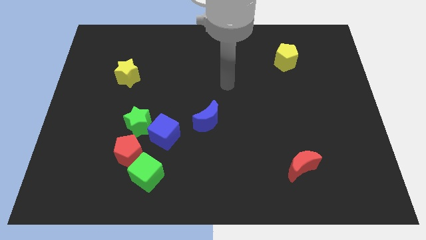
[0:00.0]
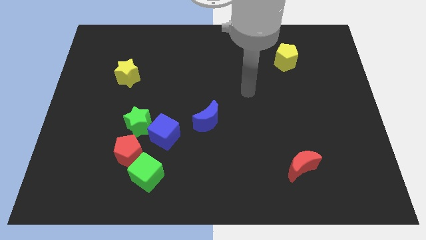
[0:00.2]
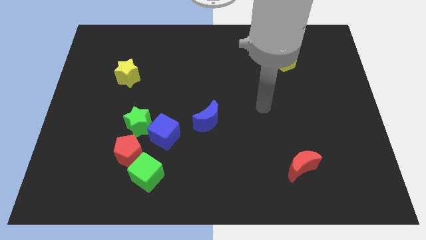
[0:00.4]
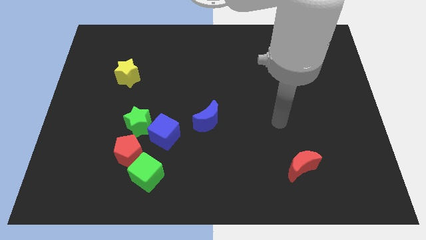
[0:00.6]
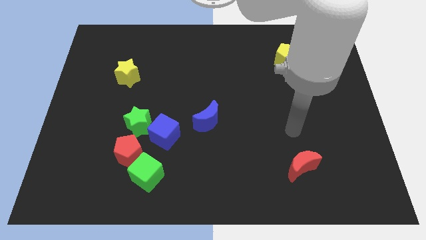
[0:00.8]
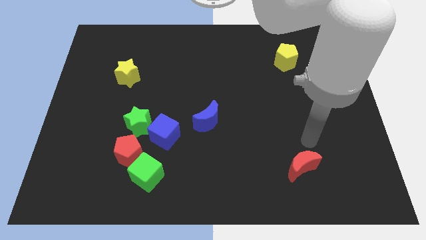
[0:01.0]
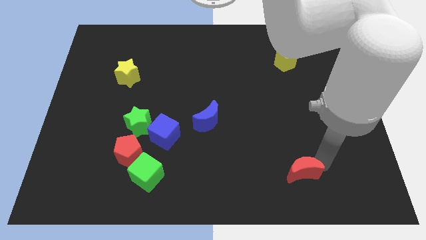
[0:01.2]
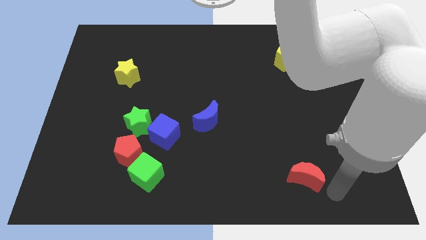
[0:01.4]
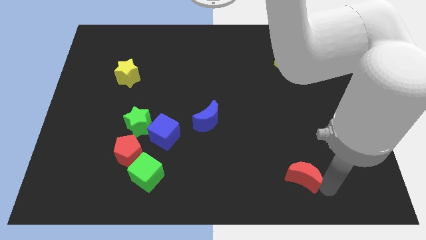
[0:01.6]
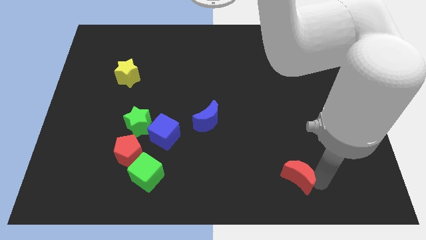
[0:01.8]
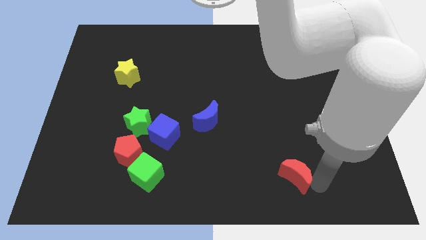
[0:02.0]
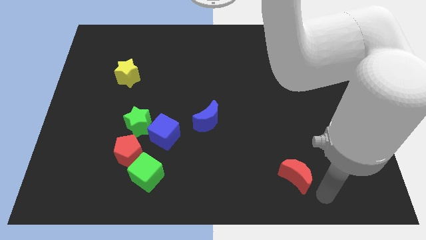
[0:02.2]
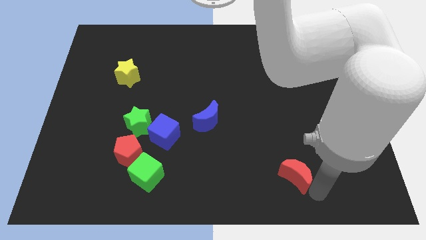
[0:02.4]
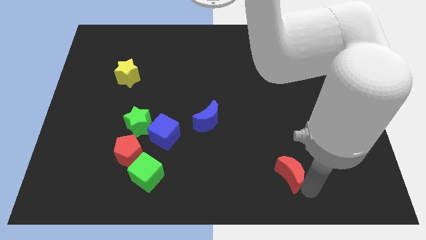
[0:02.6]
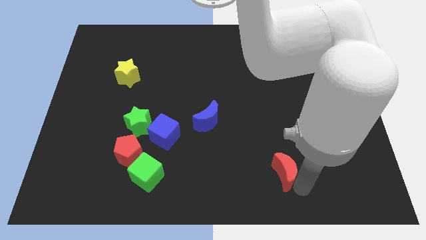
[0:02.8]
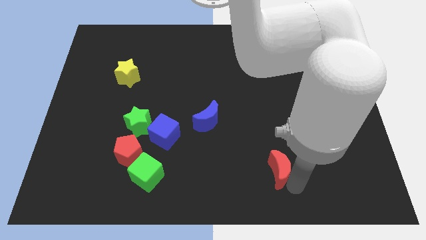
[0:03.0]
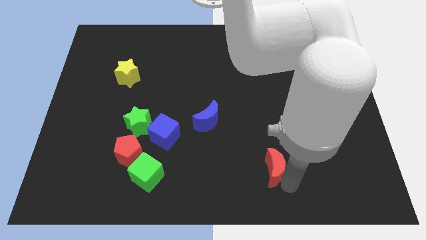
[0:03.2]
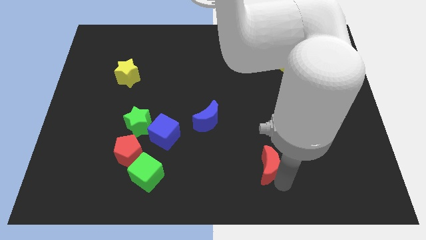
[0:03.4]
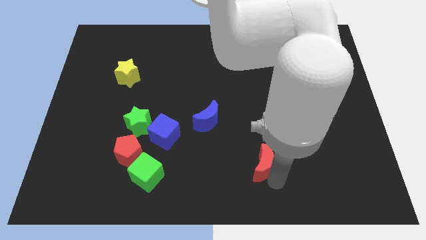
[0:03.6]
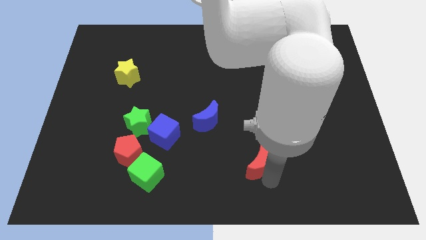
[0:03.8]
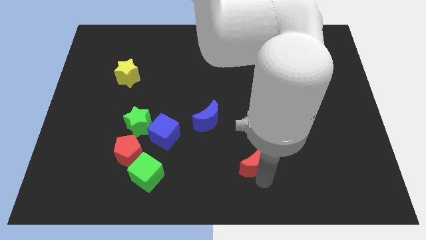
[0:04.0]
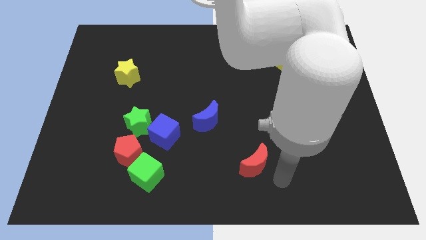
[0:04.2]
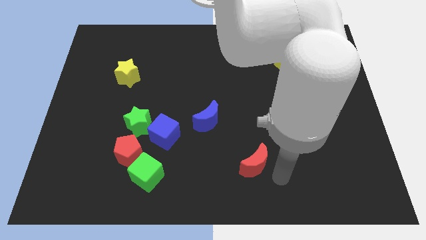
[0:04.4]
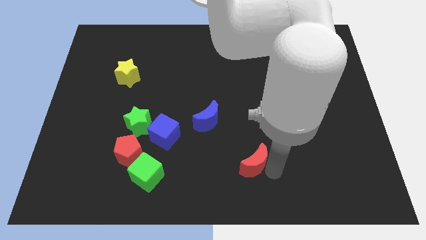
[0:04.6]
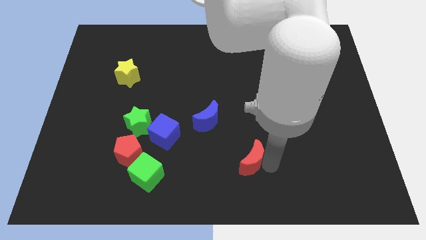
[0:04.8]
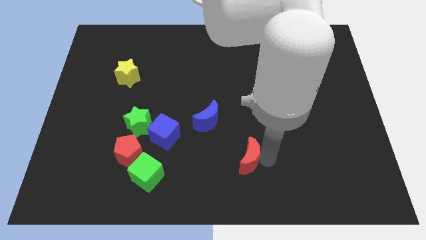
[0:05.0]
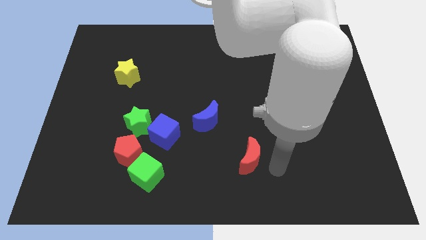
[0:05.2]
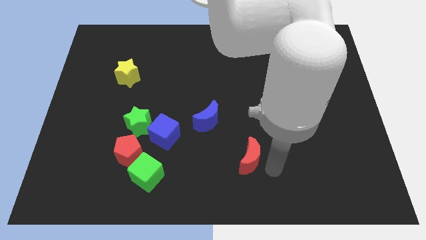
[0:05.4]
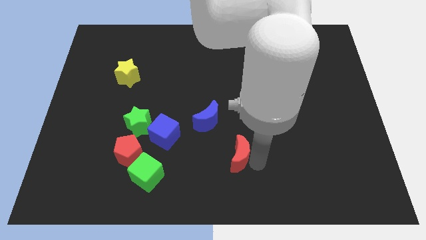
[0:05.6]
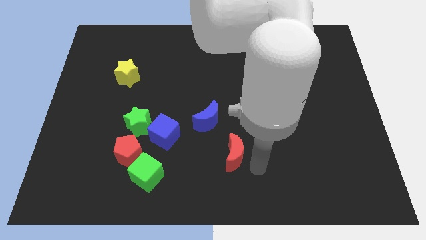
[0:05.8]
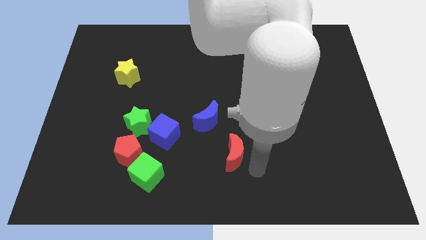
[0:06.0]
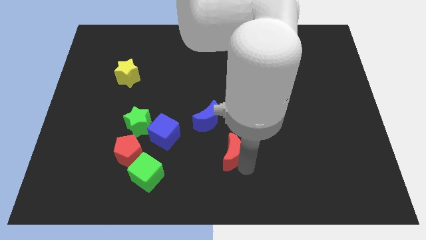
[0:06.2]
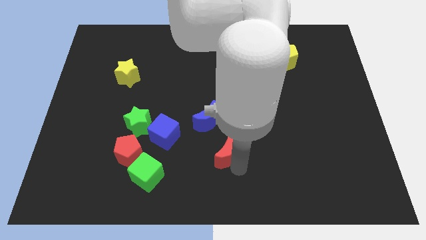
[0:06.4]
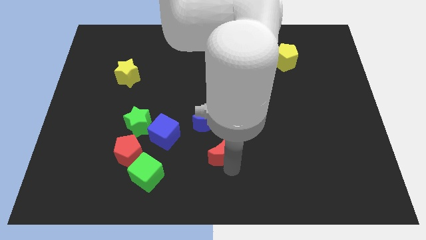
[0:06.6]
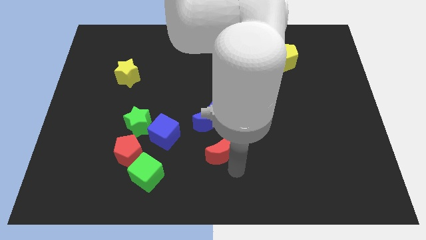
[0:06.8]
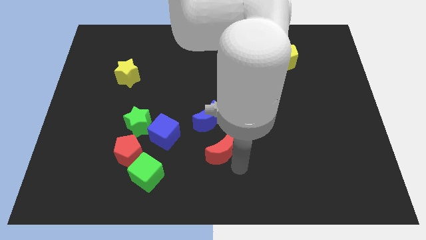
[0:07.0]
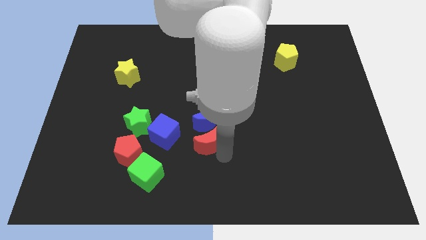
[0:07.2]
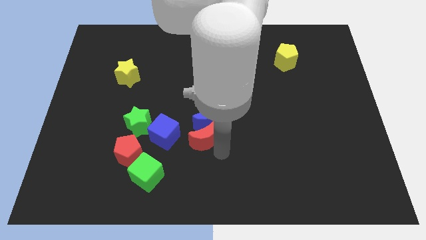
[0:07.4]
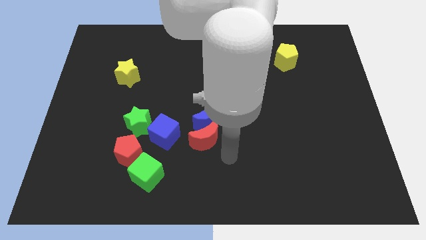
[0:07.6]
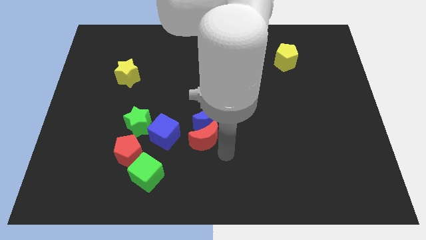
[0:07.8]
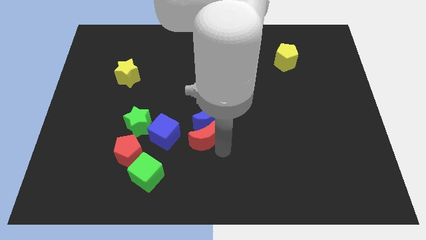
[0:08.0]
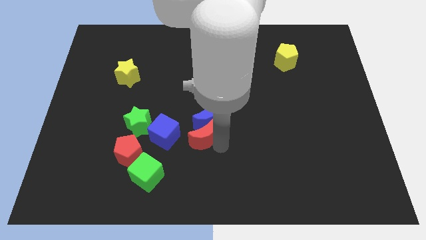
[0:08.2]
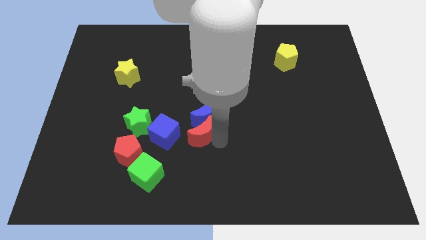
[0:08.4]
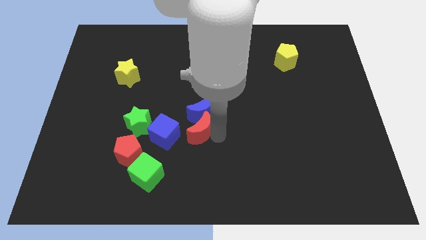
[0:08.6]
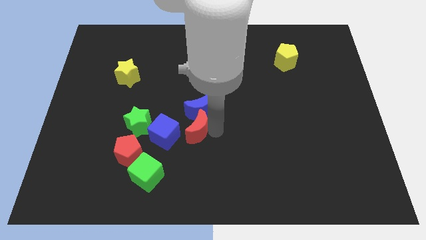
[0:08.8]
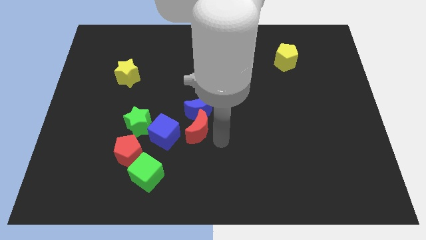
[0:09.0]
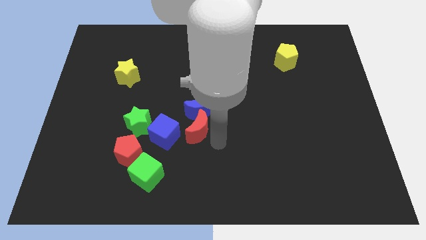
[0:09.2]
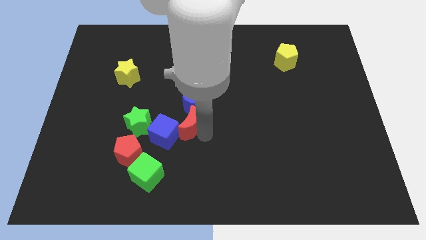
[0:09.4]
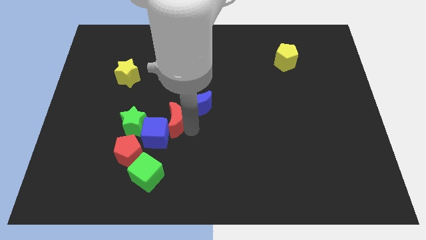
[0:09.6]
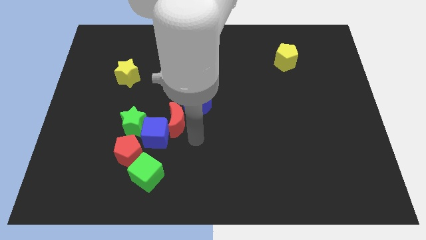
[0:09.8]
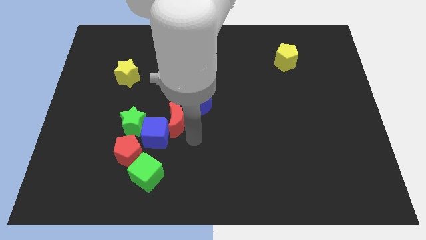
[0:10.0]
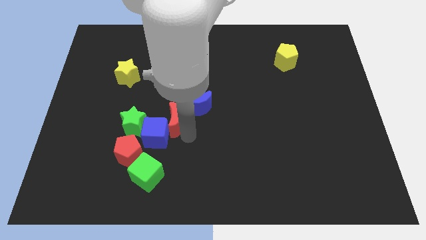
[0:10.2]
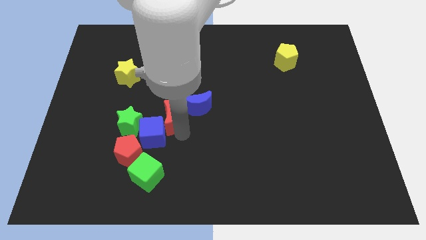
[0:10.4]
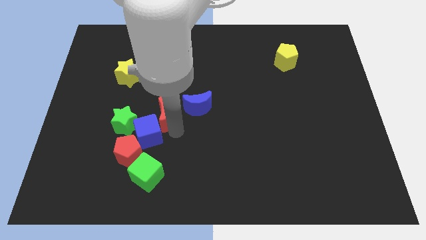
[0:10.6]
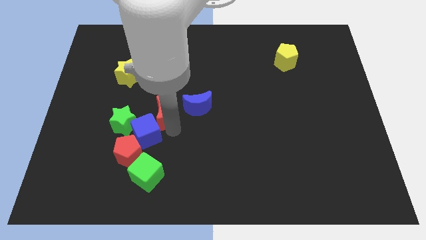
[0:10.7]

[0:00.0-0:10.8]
push the red moon to the top right side of the green star

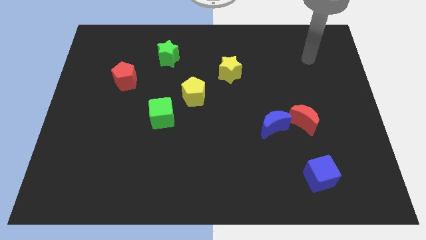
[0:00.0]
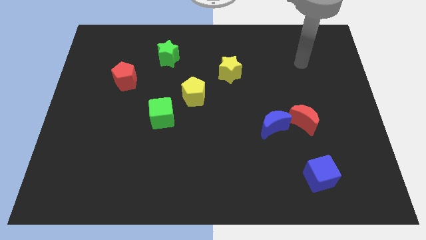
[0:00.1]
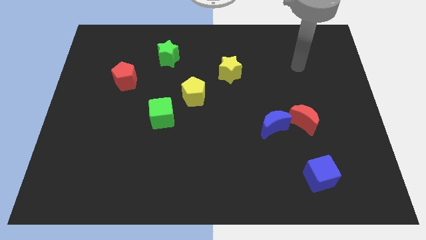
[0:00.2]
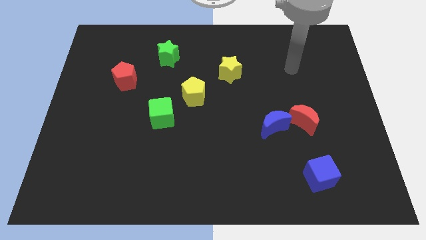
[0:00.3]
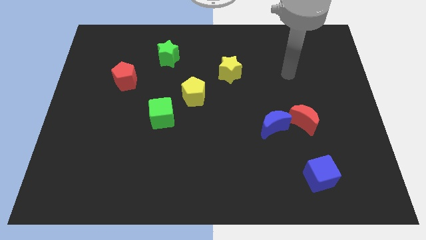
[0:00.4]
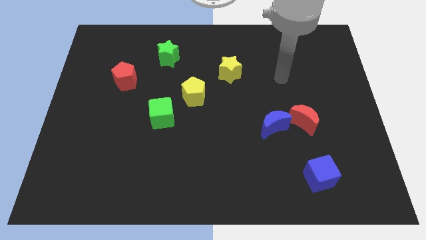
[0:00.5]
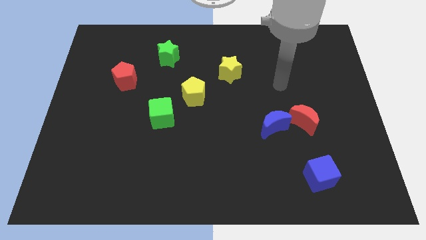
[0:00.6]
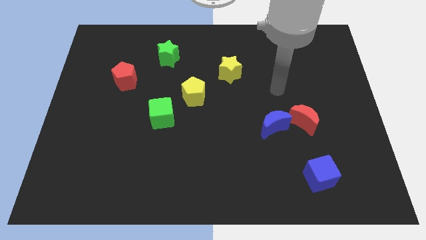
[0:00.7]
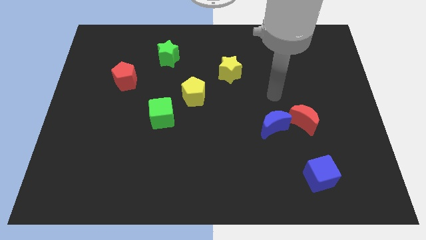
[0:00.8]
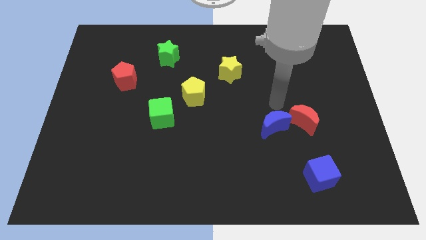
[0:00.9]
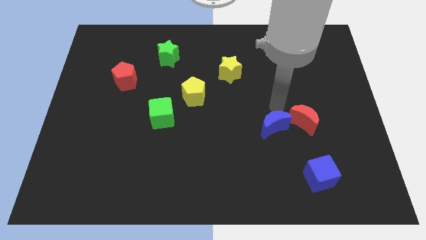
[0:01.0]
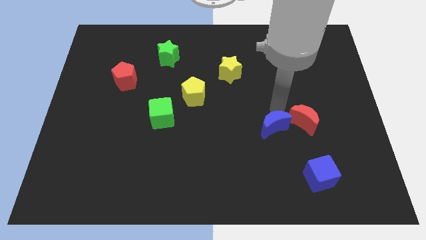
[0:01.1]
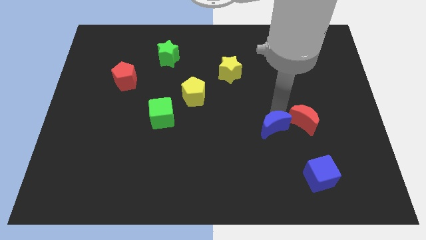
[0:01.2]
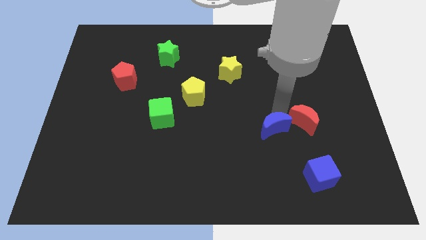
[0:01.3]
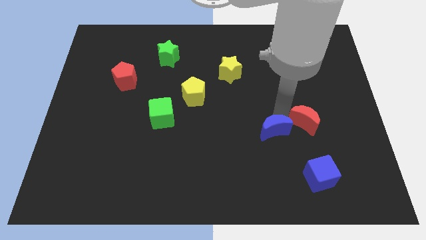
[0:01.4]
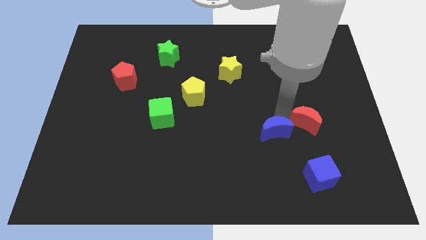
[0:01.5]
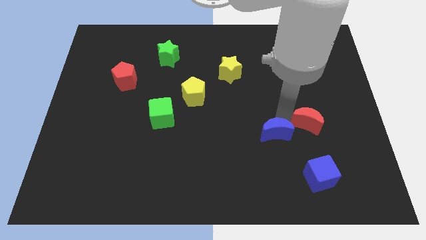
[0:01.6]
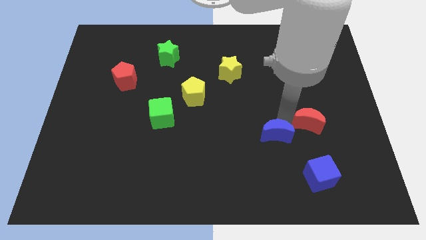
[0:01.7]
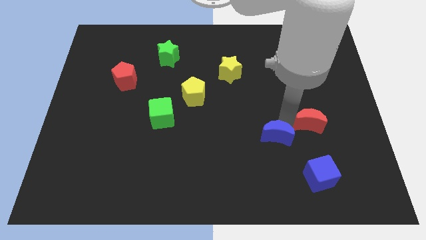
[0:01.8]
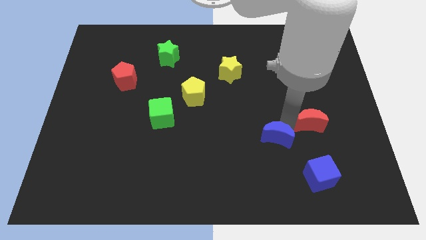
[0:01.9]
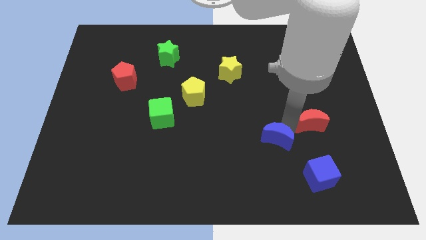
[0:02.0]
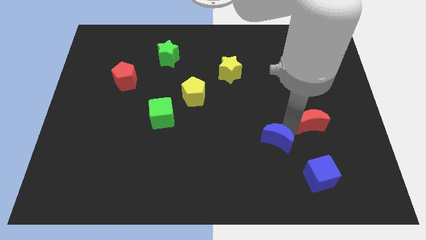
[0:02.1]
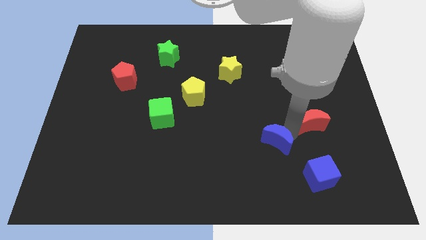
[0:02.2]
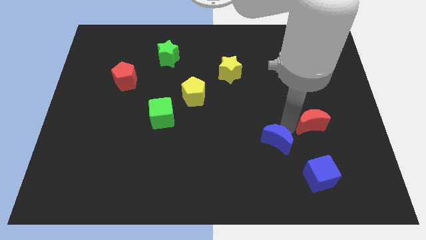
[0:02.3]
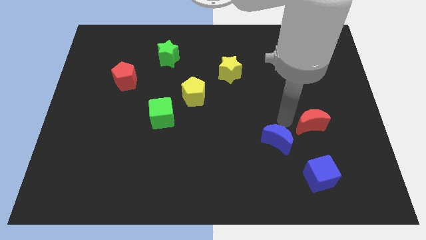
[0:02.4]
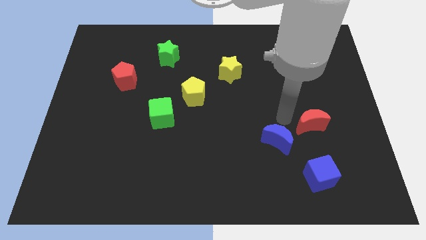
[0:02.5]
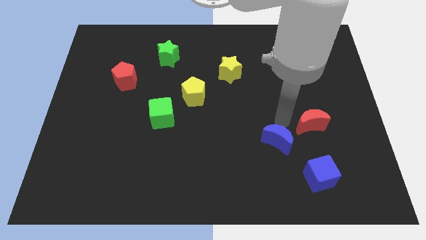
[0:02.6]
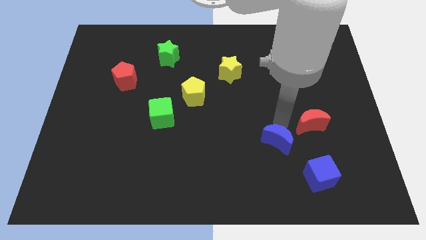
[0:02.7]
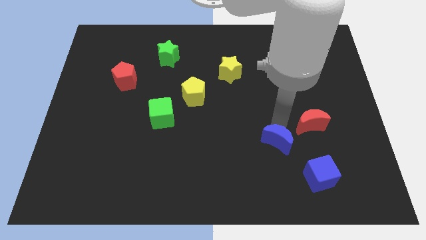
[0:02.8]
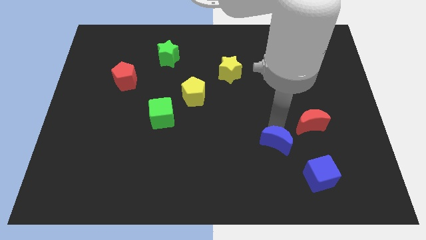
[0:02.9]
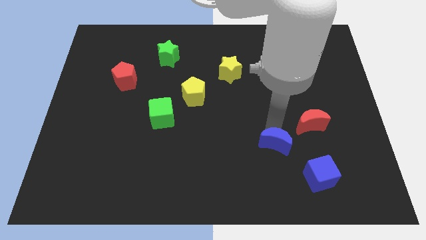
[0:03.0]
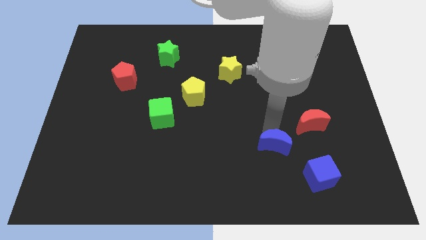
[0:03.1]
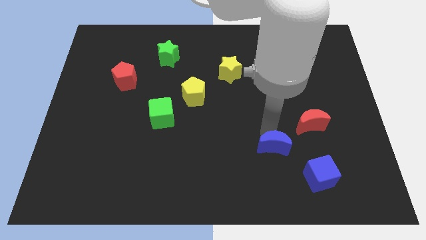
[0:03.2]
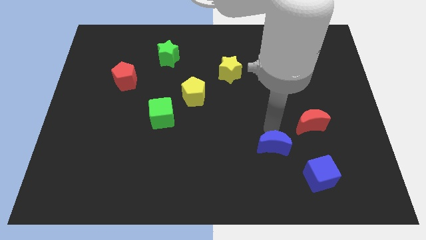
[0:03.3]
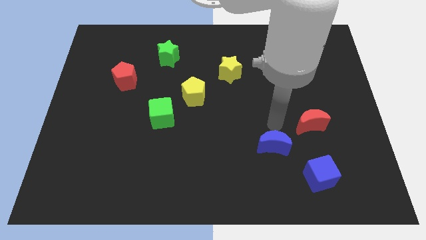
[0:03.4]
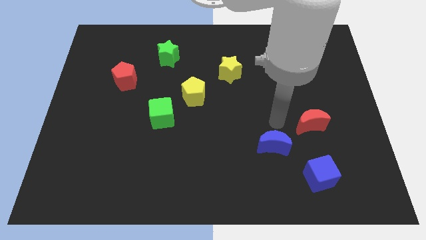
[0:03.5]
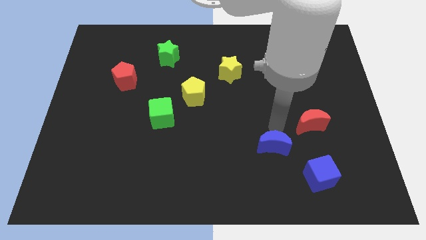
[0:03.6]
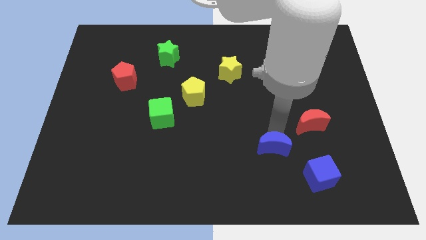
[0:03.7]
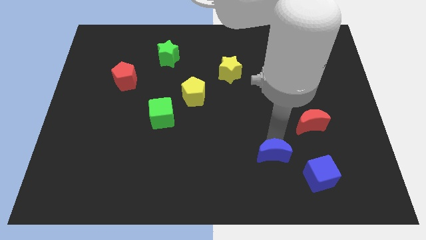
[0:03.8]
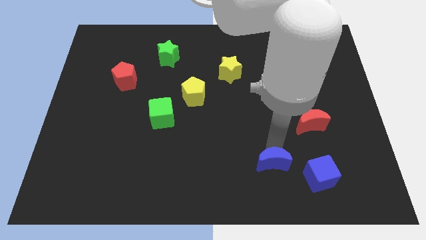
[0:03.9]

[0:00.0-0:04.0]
slide the blue moon left of the blue cube
